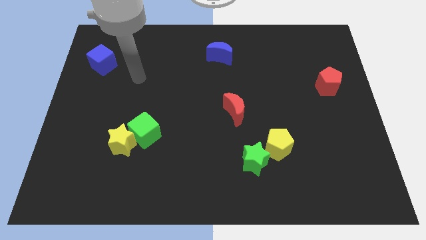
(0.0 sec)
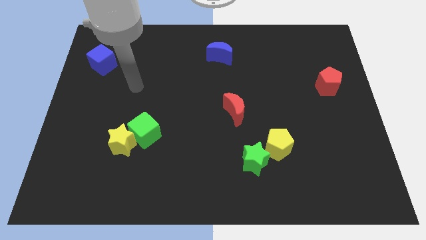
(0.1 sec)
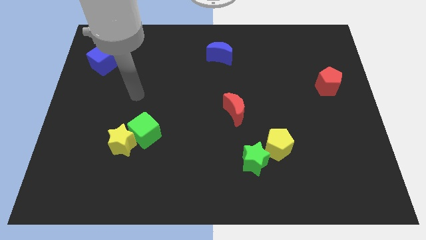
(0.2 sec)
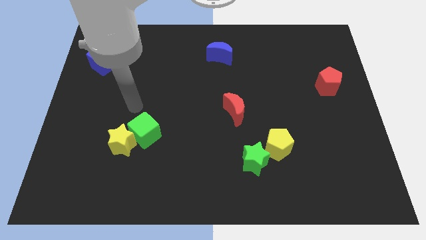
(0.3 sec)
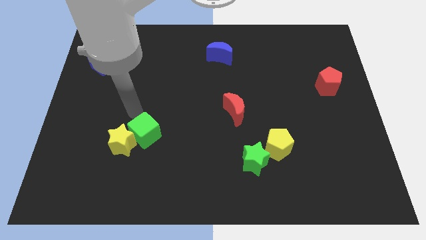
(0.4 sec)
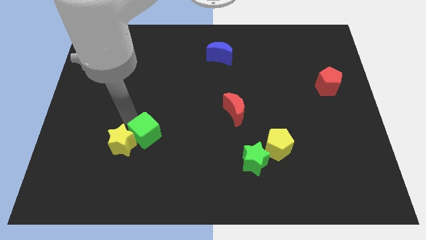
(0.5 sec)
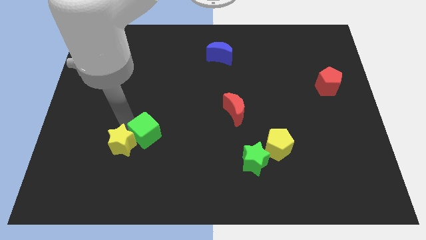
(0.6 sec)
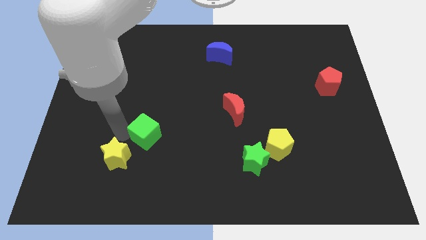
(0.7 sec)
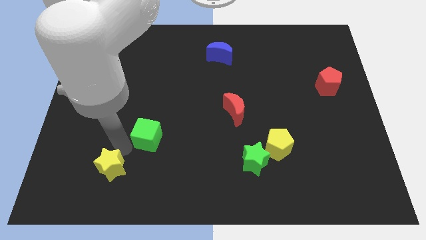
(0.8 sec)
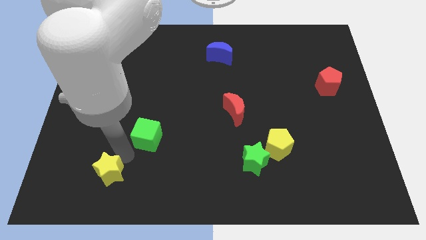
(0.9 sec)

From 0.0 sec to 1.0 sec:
pull the green cube apart from the yellow star

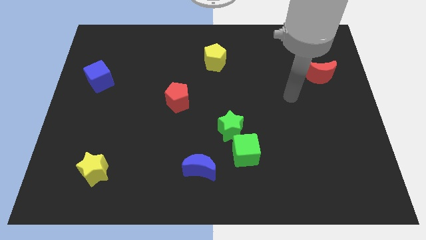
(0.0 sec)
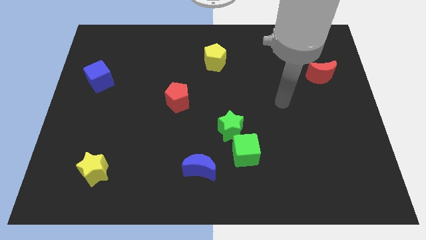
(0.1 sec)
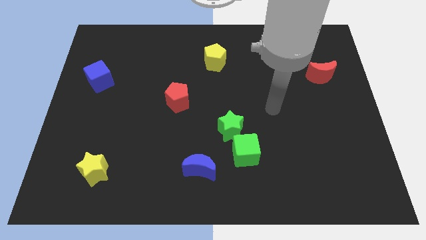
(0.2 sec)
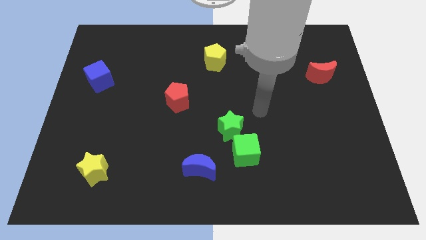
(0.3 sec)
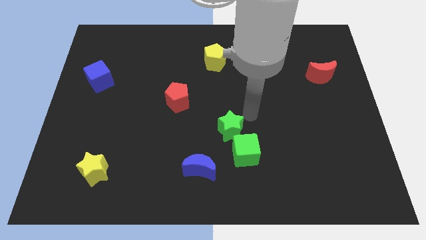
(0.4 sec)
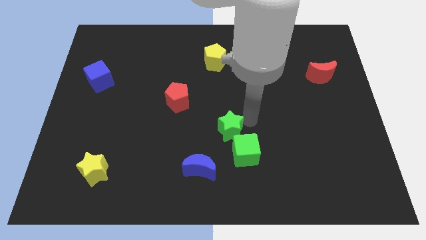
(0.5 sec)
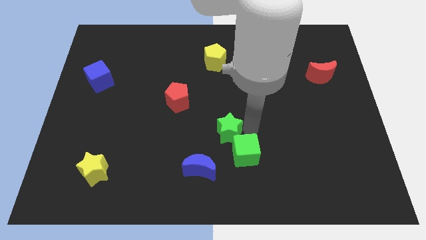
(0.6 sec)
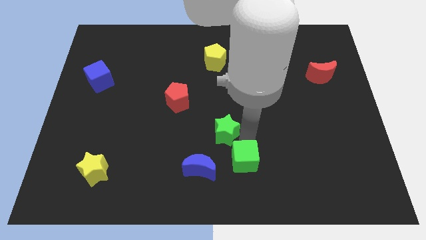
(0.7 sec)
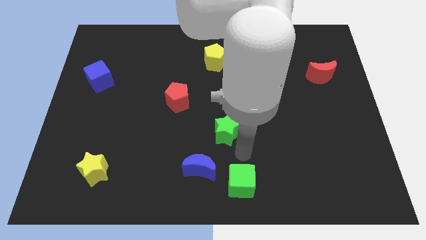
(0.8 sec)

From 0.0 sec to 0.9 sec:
pull the green star apart from the green cube

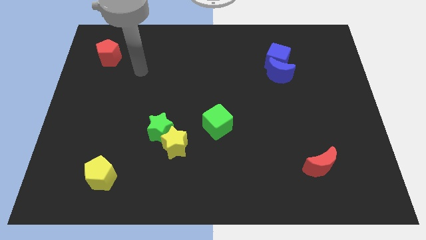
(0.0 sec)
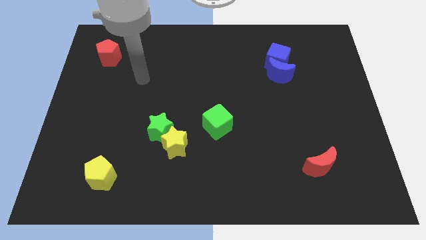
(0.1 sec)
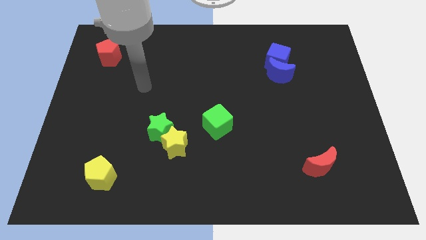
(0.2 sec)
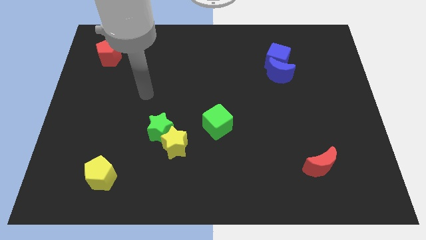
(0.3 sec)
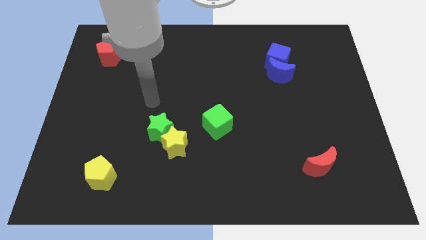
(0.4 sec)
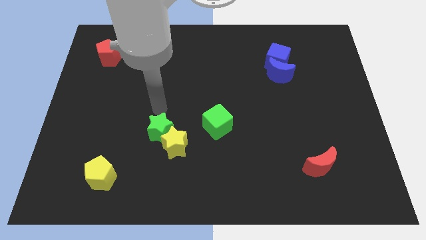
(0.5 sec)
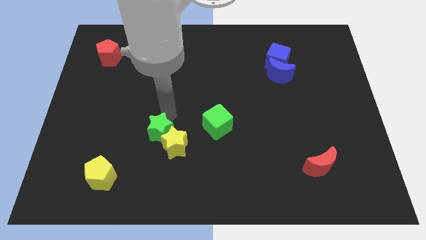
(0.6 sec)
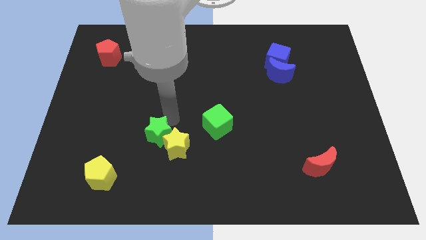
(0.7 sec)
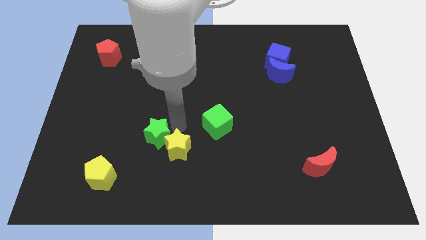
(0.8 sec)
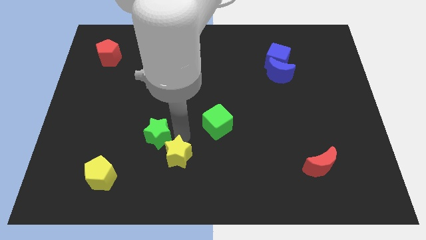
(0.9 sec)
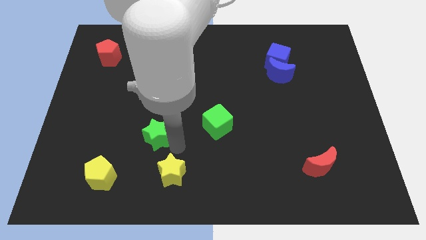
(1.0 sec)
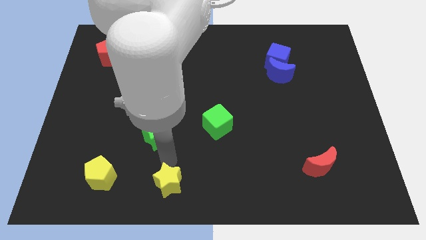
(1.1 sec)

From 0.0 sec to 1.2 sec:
move the green star away from the yellow star

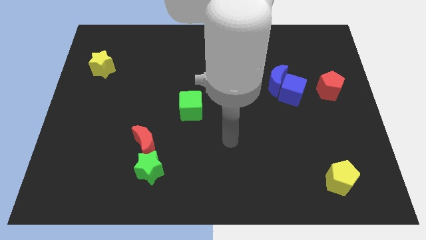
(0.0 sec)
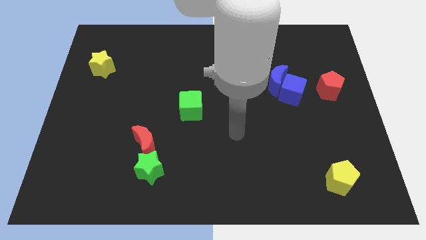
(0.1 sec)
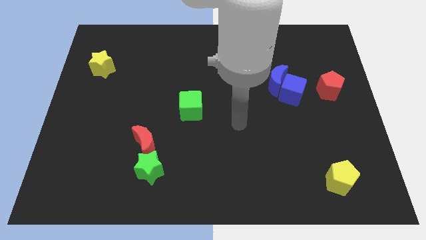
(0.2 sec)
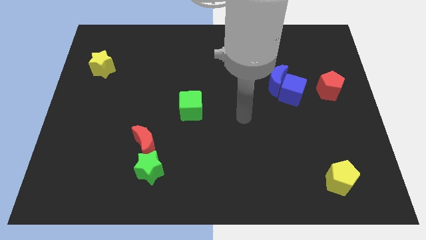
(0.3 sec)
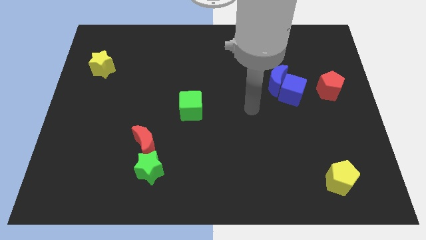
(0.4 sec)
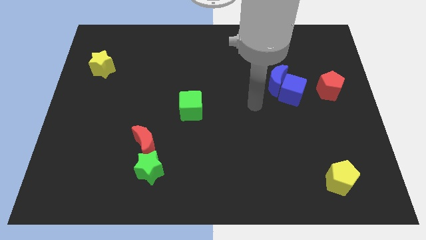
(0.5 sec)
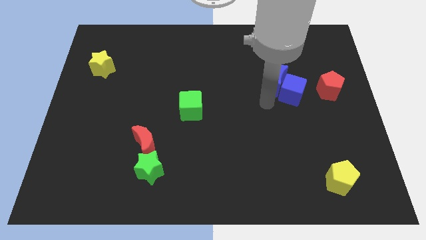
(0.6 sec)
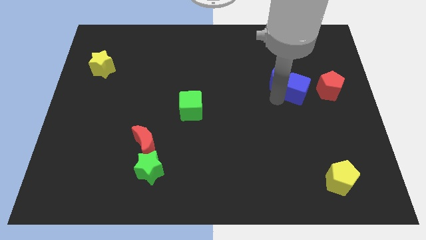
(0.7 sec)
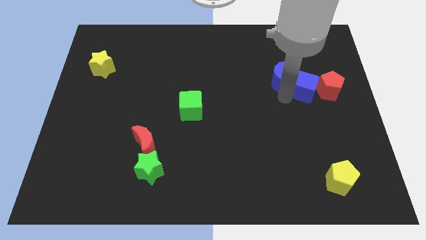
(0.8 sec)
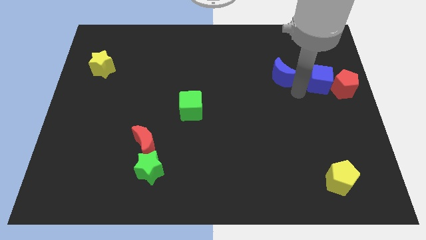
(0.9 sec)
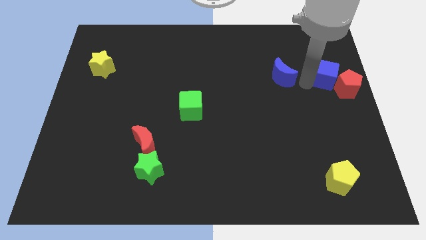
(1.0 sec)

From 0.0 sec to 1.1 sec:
pull the blue moon apart from the blue cube

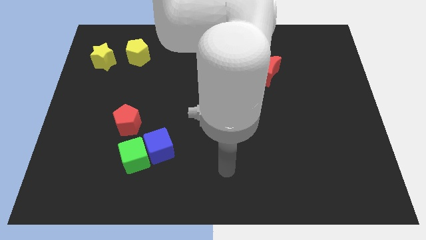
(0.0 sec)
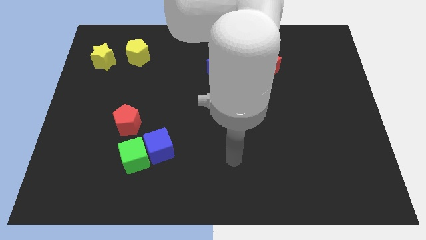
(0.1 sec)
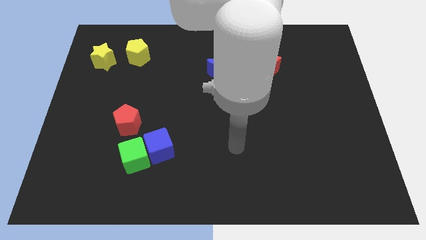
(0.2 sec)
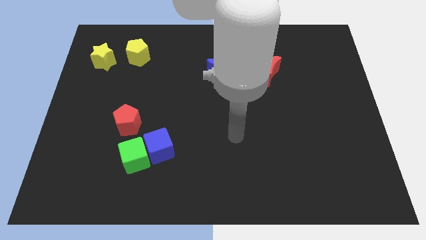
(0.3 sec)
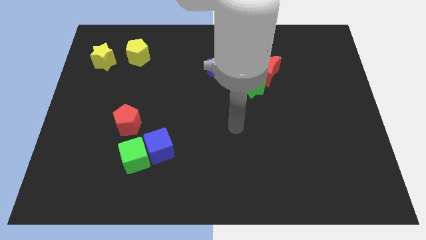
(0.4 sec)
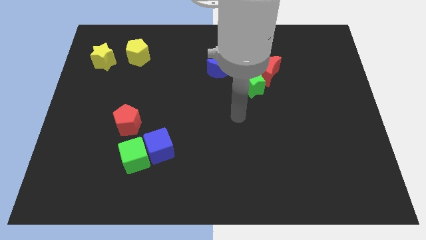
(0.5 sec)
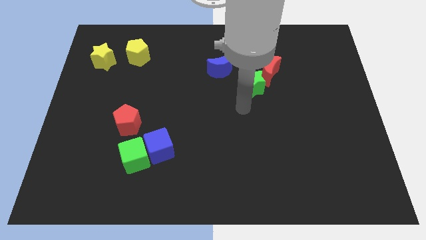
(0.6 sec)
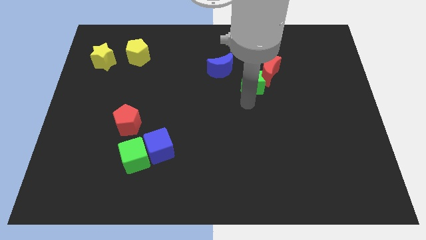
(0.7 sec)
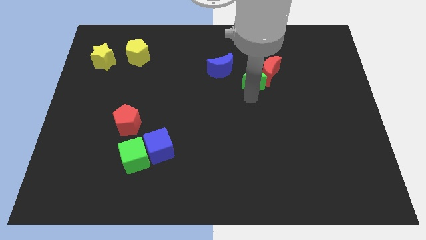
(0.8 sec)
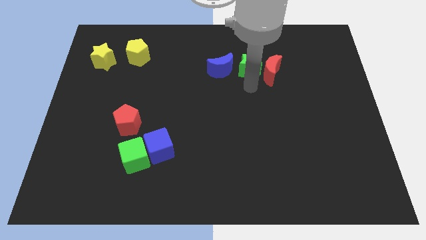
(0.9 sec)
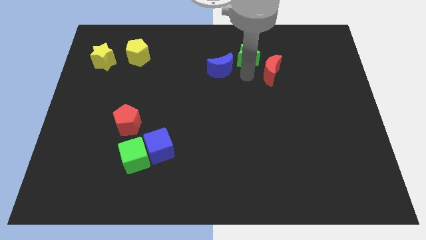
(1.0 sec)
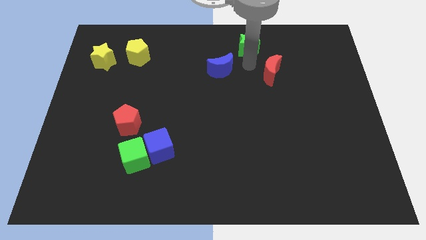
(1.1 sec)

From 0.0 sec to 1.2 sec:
move the red moon away from the green star

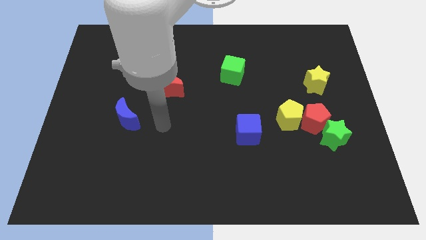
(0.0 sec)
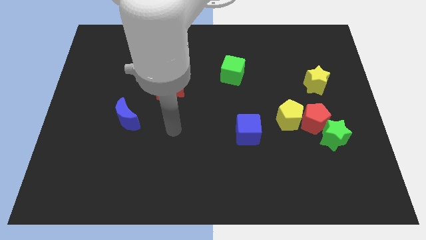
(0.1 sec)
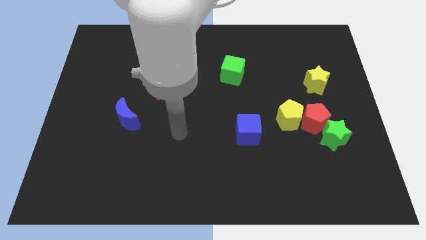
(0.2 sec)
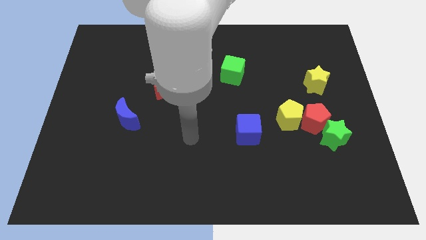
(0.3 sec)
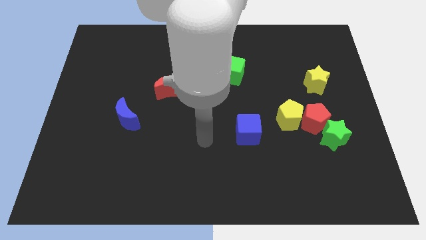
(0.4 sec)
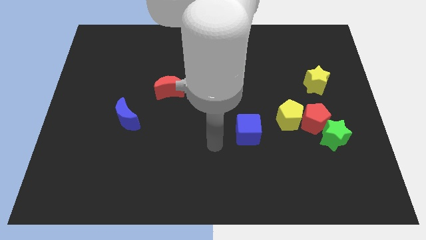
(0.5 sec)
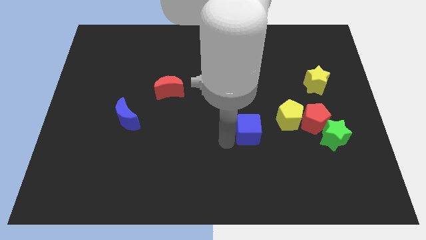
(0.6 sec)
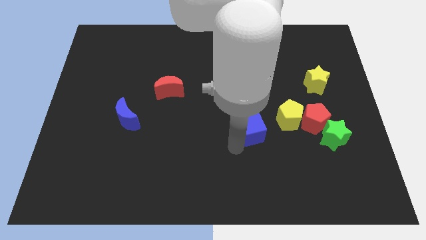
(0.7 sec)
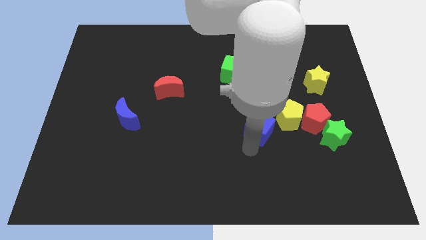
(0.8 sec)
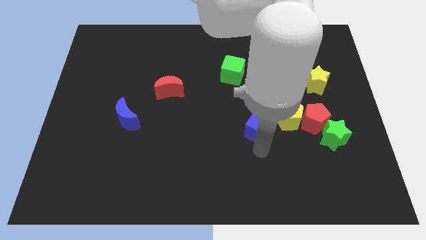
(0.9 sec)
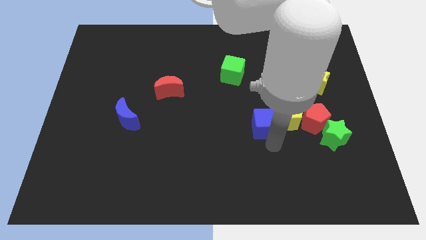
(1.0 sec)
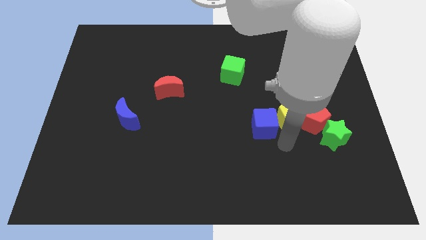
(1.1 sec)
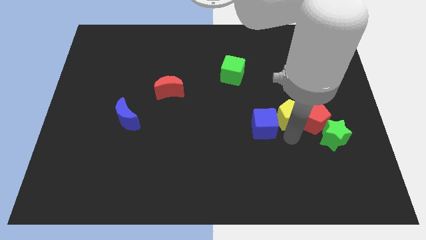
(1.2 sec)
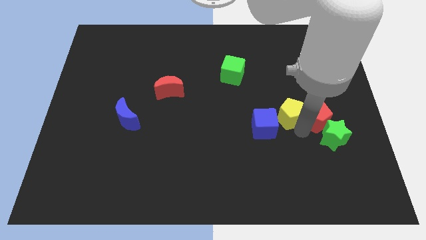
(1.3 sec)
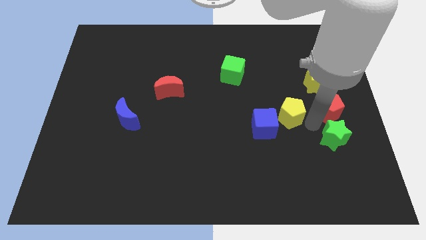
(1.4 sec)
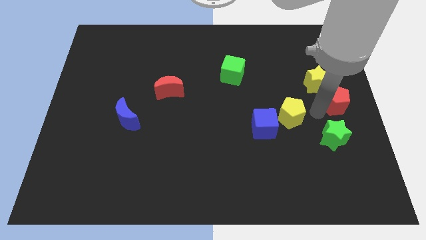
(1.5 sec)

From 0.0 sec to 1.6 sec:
separate the yellow pentagon from the red pentagon

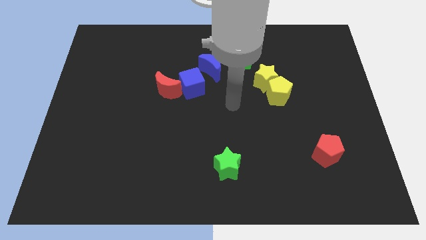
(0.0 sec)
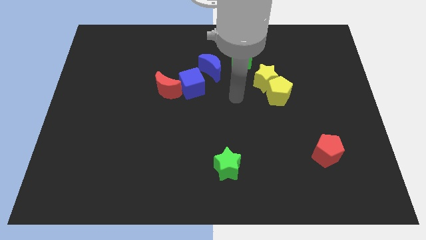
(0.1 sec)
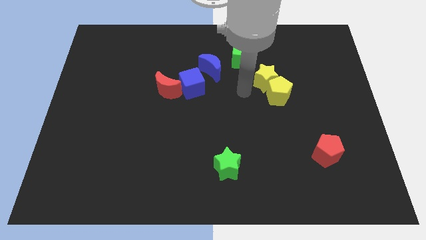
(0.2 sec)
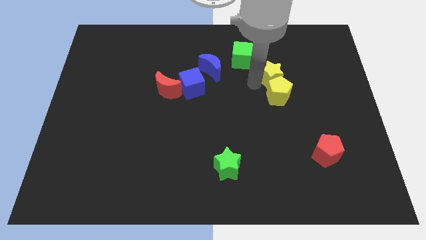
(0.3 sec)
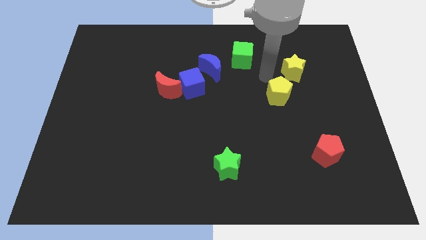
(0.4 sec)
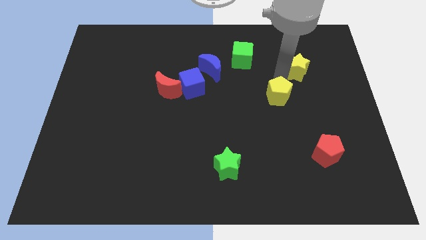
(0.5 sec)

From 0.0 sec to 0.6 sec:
pull the yellow pentagon apart from the yellow star

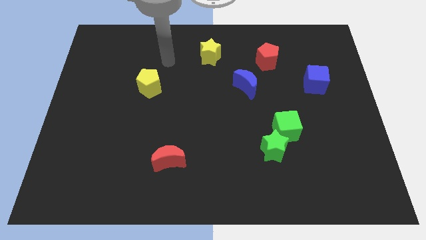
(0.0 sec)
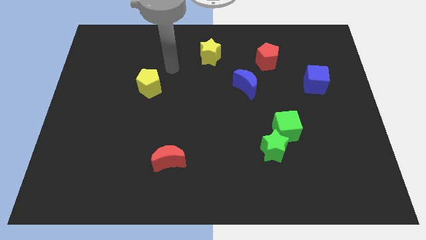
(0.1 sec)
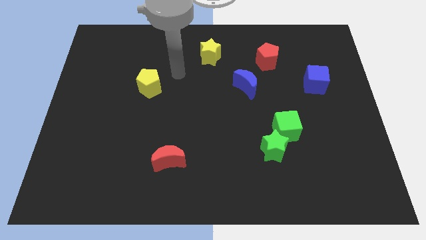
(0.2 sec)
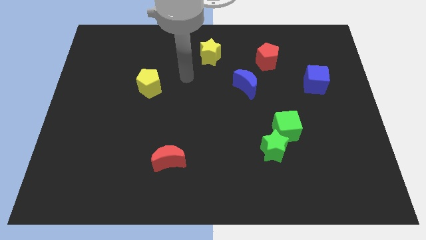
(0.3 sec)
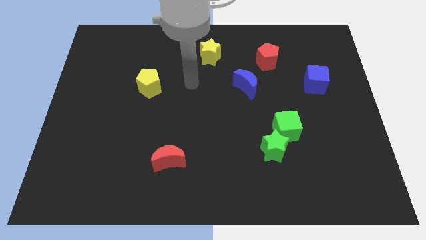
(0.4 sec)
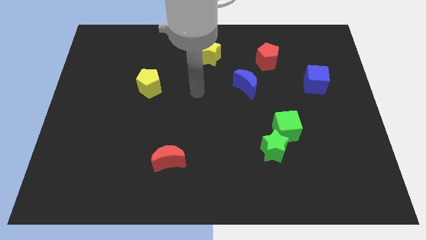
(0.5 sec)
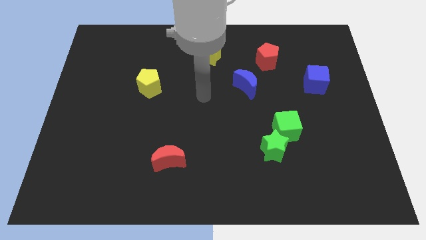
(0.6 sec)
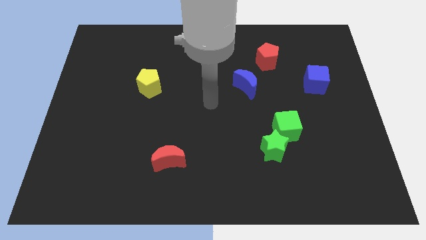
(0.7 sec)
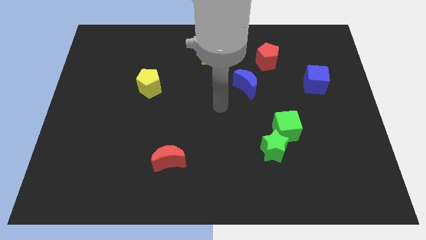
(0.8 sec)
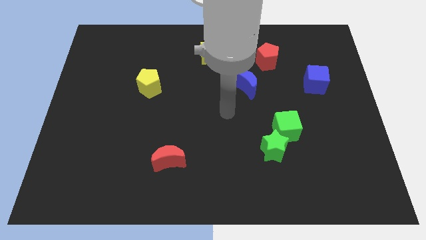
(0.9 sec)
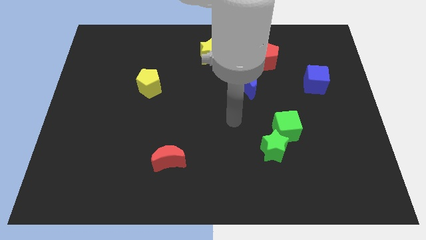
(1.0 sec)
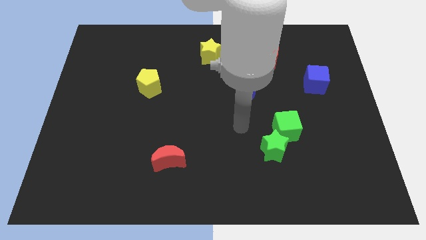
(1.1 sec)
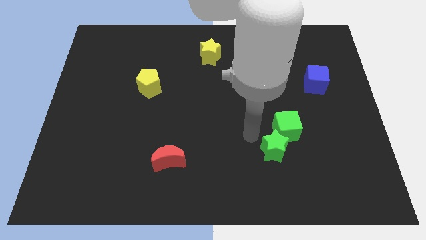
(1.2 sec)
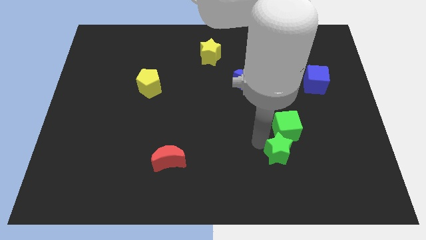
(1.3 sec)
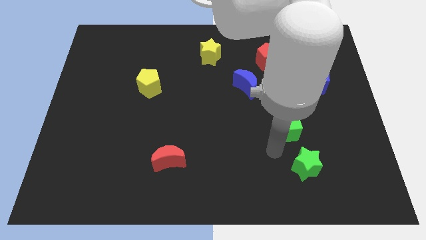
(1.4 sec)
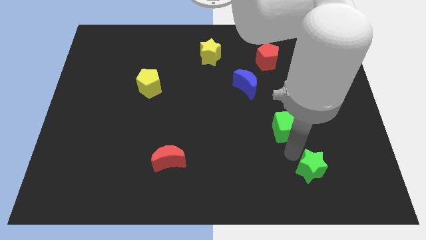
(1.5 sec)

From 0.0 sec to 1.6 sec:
pull the green cube apart from the green star

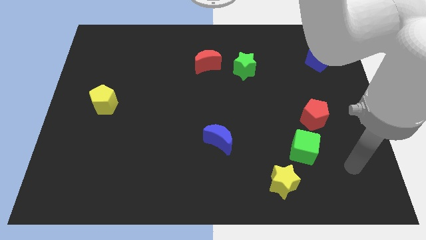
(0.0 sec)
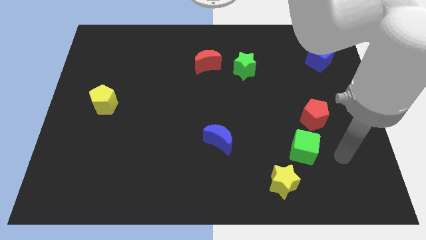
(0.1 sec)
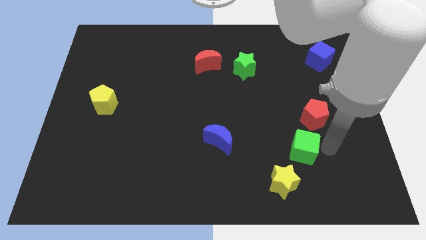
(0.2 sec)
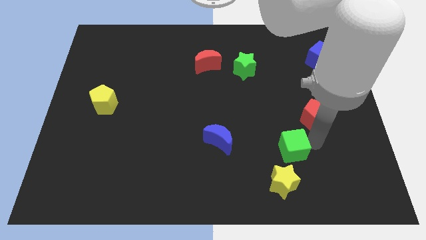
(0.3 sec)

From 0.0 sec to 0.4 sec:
separate the red pentagon from the green cube
